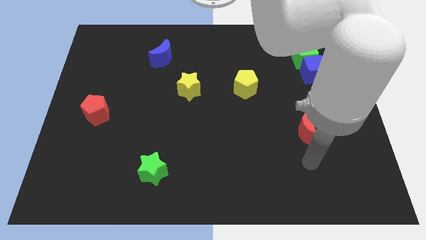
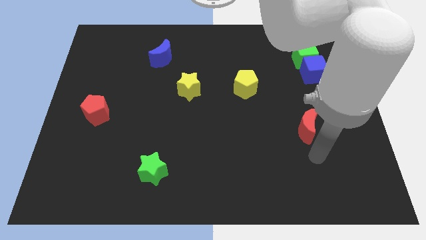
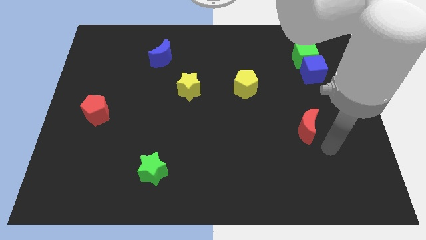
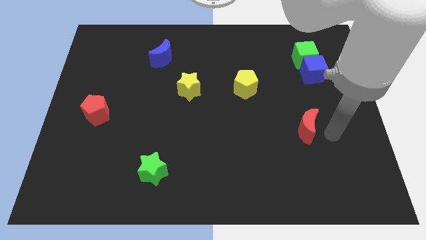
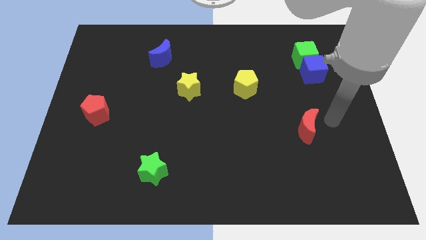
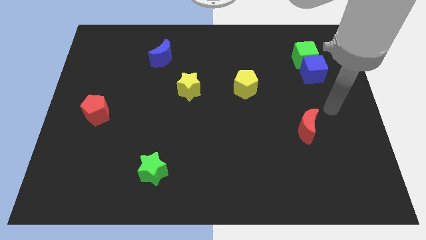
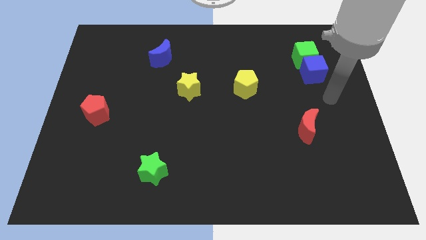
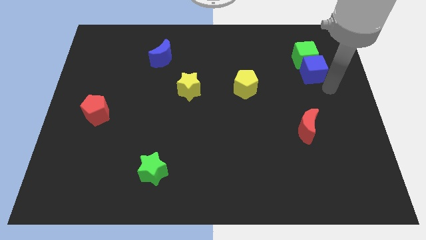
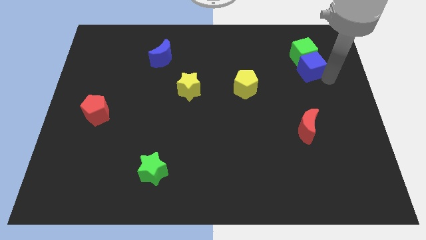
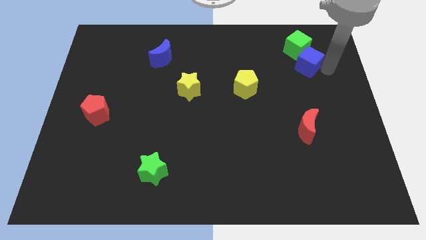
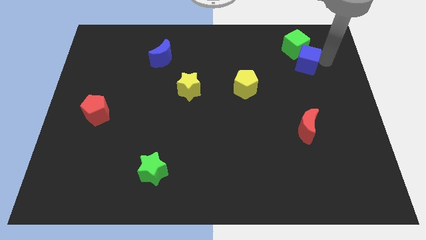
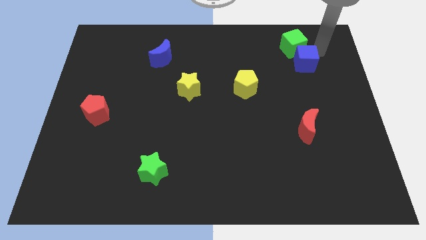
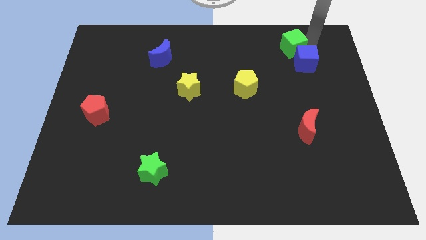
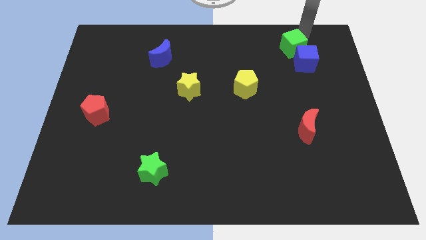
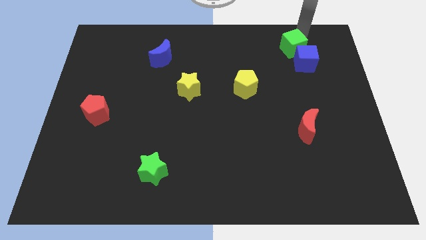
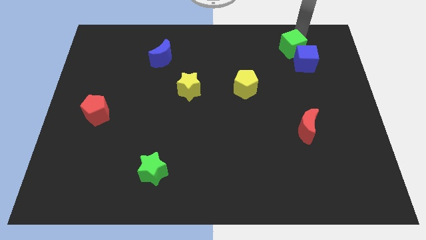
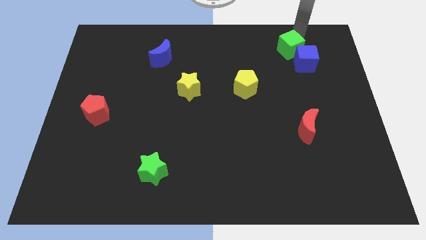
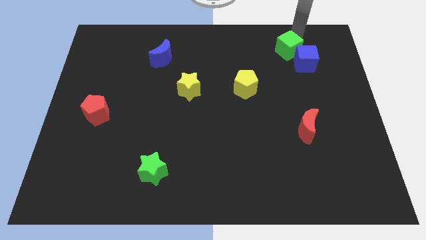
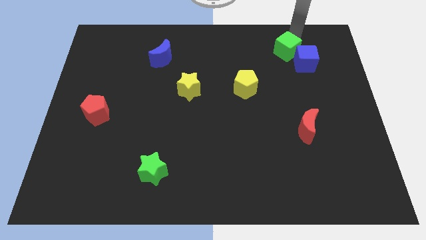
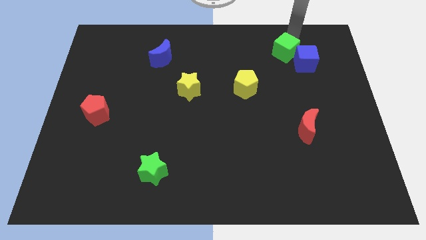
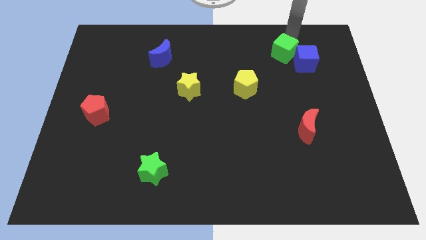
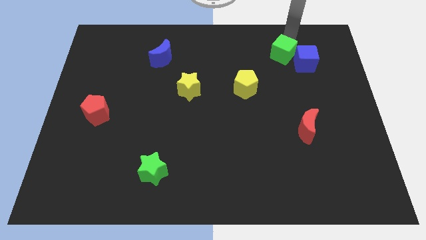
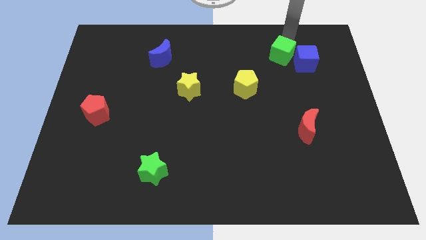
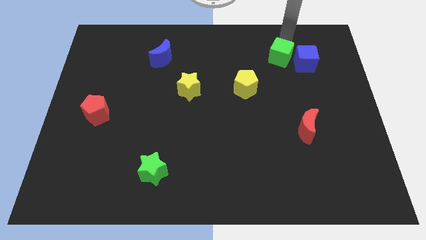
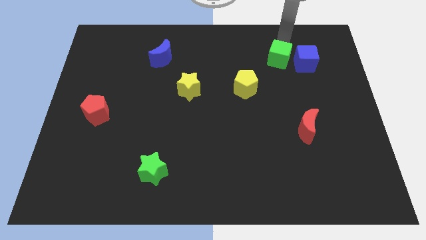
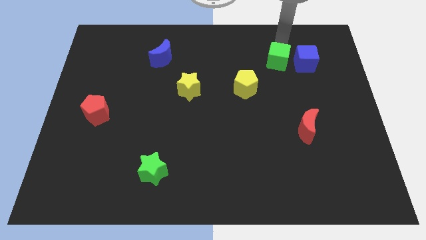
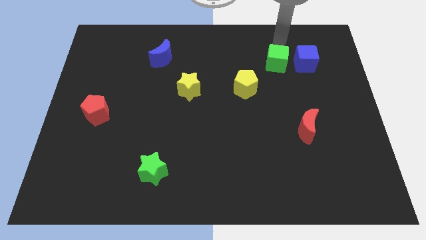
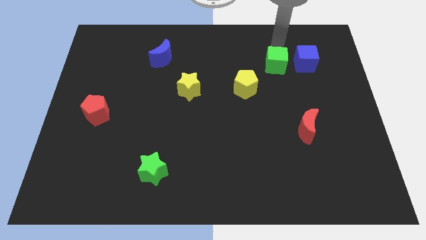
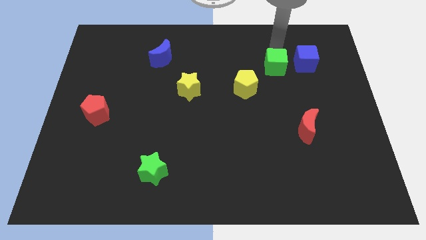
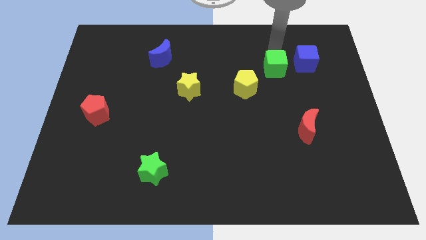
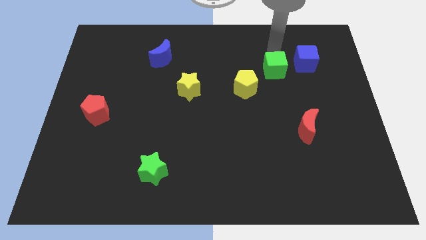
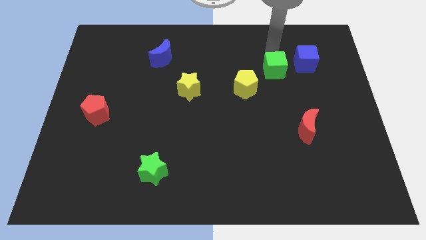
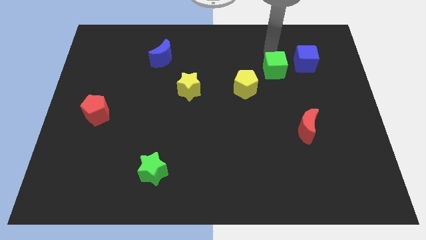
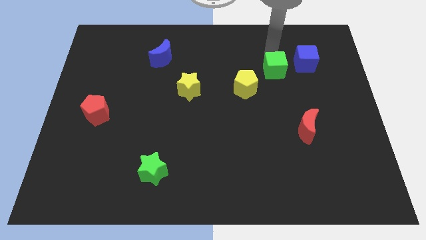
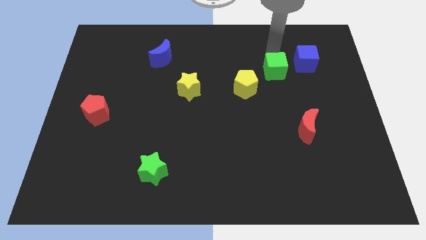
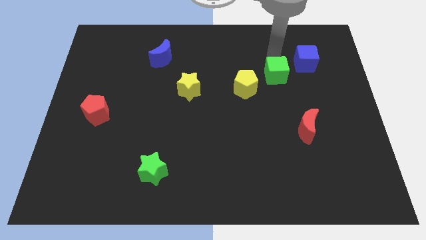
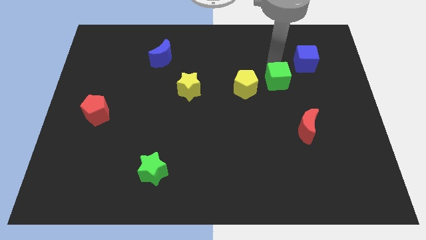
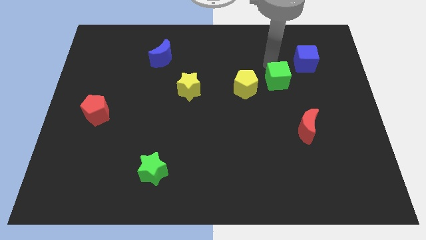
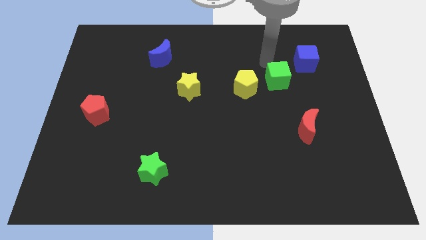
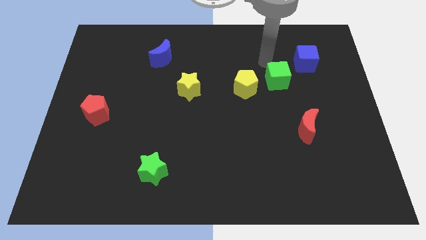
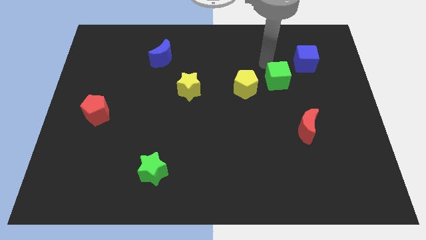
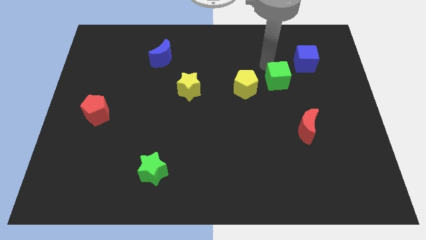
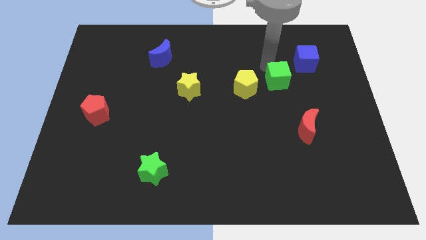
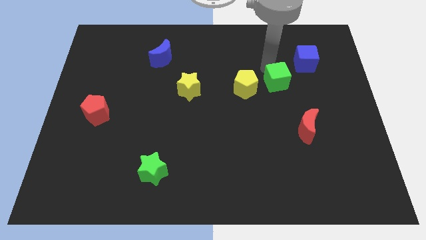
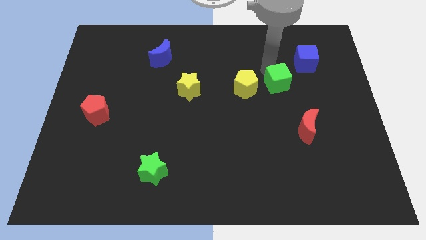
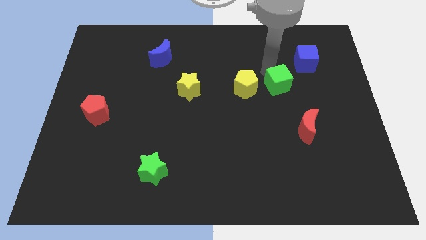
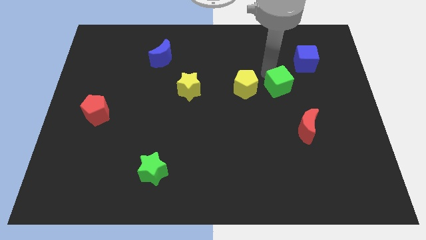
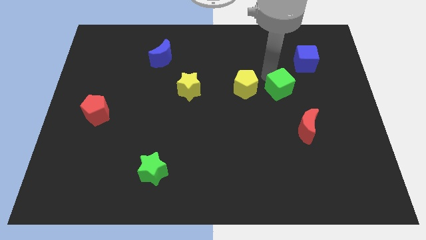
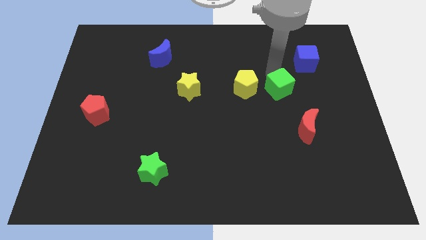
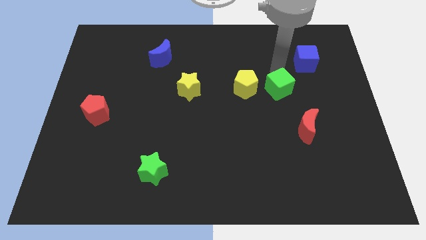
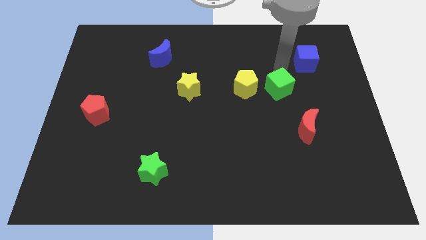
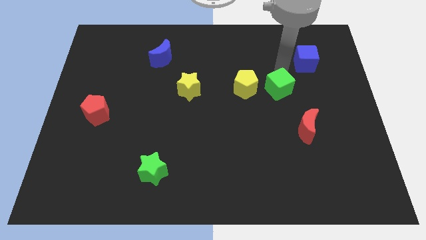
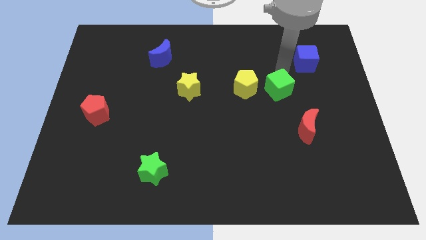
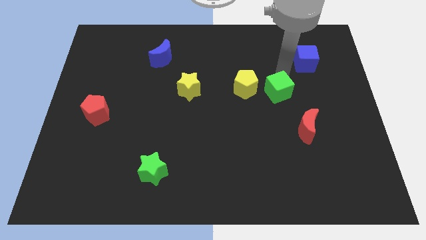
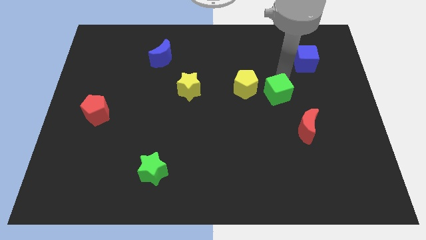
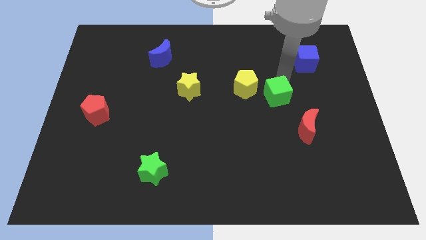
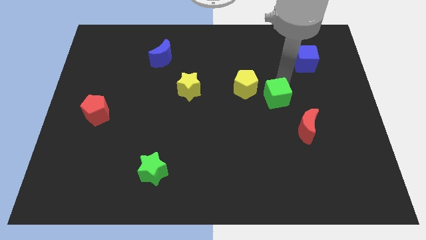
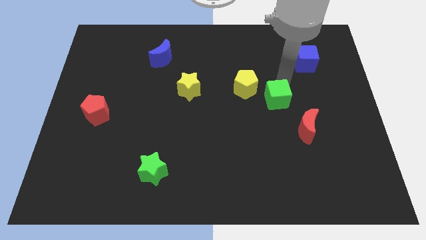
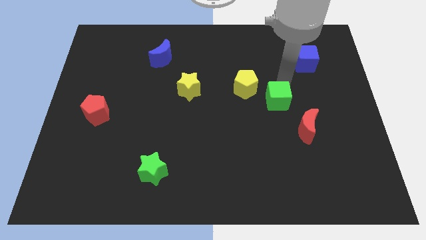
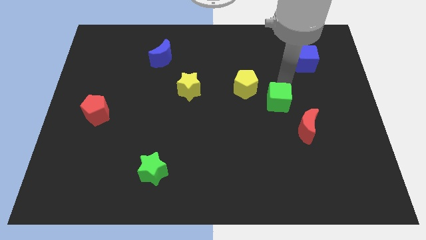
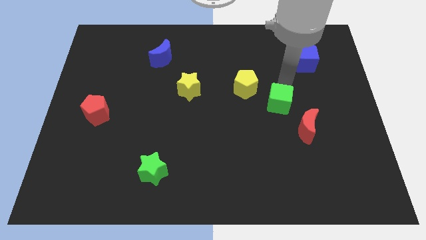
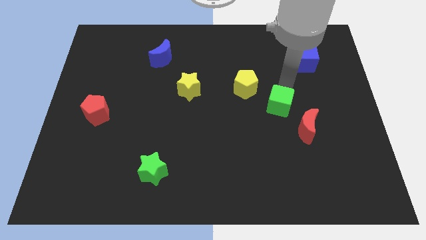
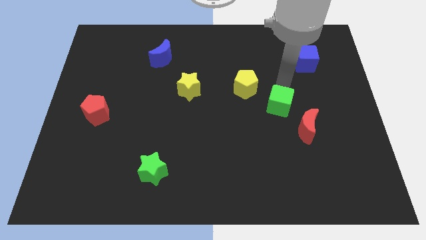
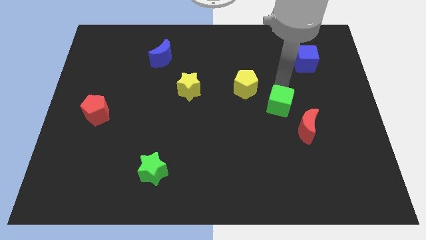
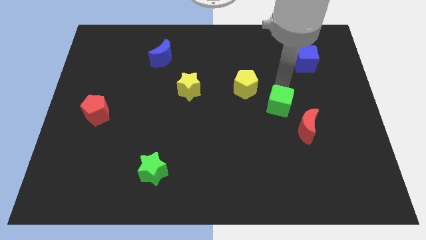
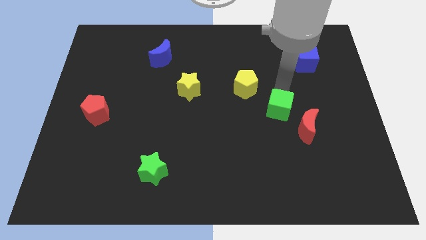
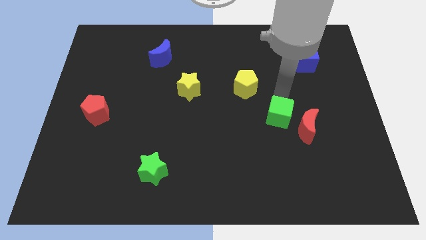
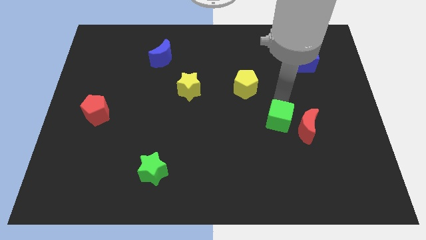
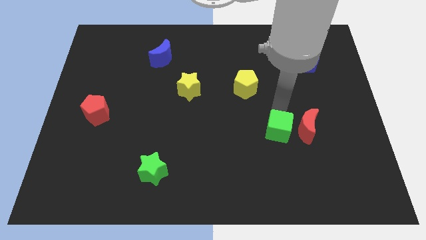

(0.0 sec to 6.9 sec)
slide the green cube to the bottom left of the red moon
